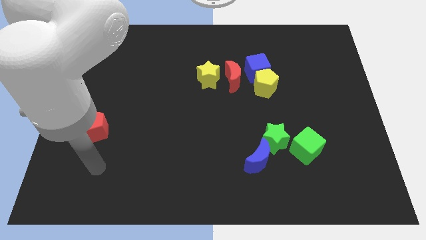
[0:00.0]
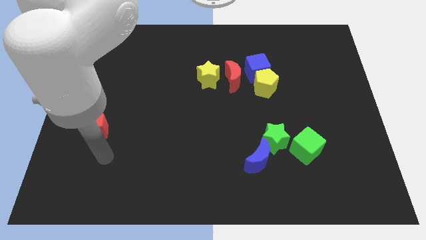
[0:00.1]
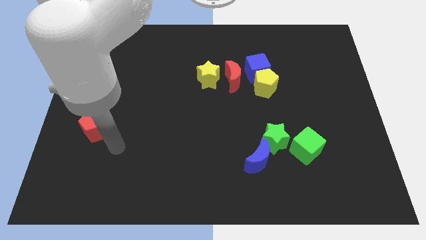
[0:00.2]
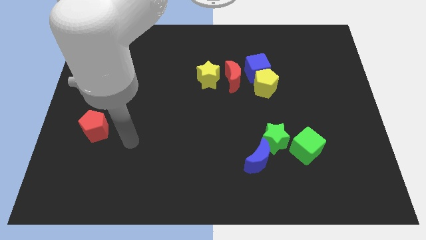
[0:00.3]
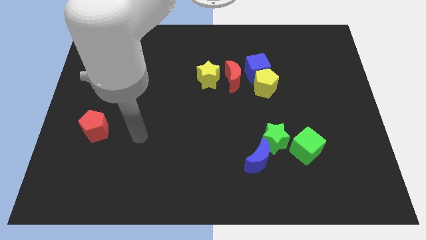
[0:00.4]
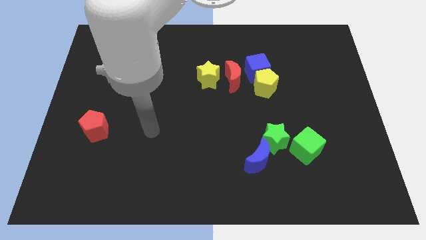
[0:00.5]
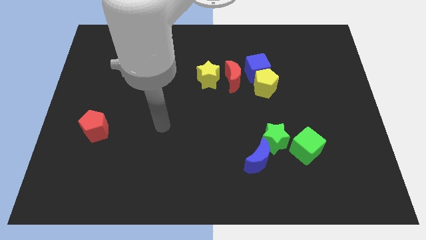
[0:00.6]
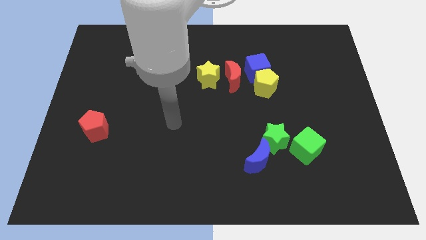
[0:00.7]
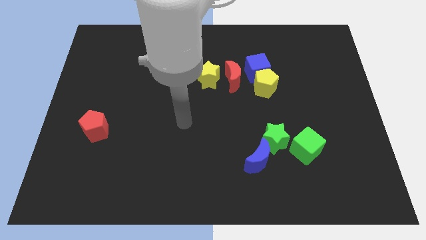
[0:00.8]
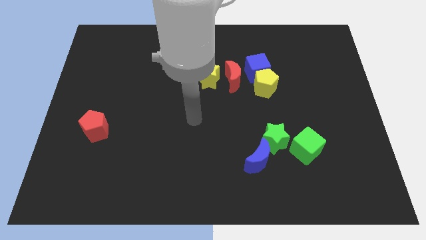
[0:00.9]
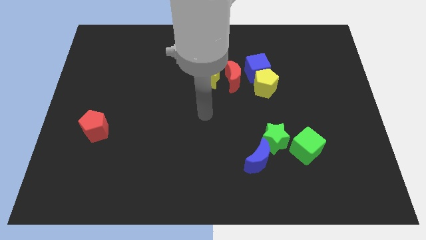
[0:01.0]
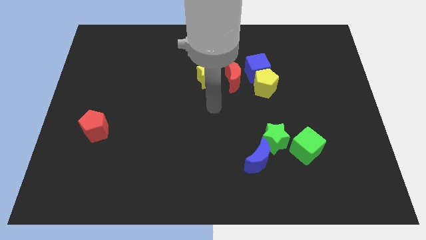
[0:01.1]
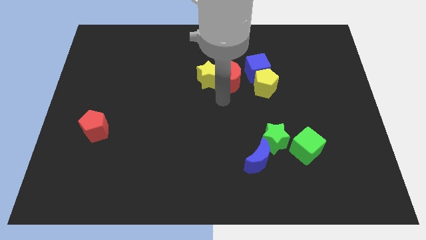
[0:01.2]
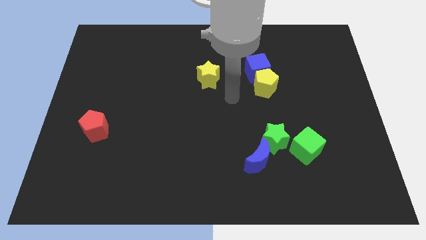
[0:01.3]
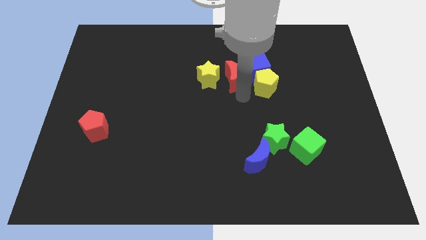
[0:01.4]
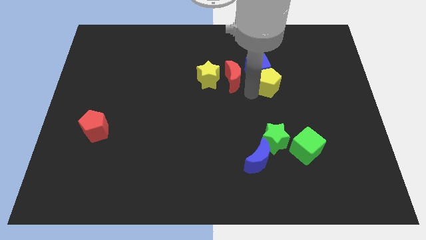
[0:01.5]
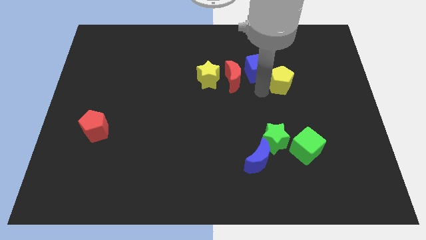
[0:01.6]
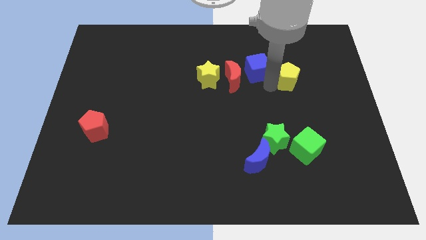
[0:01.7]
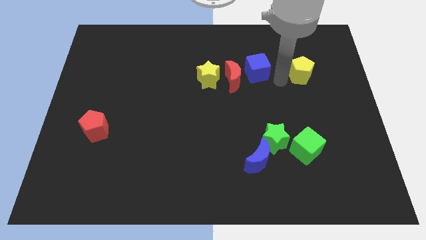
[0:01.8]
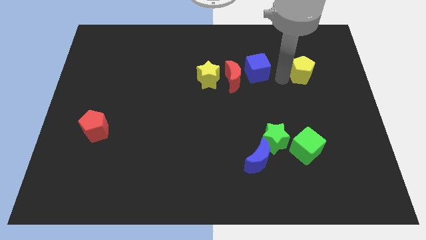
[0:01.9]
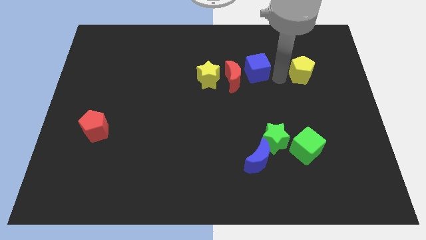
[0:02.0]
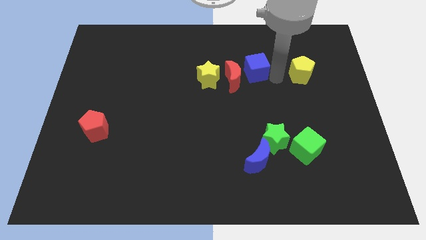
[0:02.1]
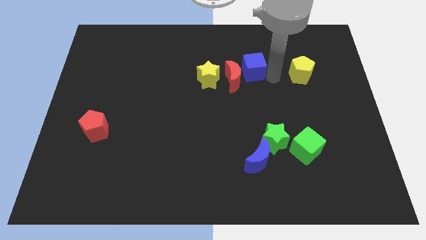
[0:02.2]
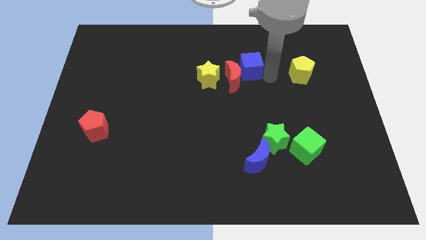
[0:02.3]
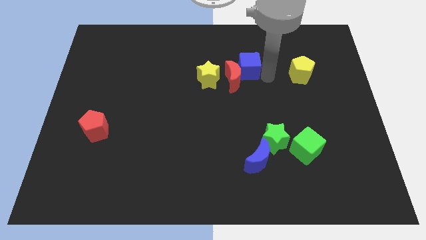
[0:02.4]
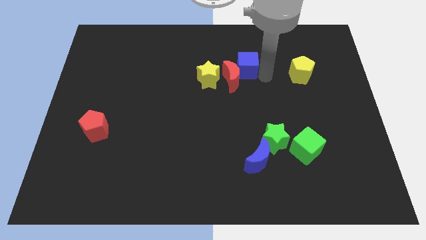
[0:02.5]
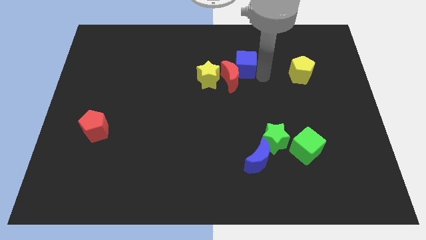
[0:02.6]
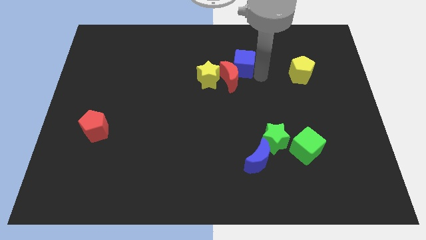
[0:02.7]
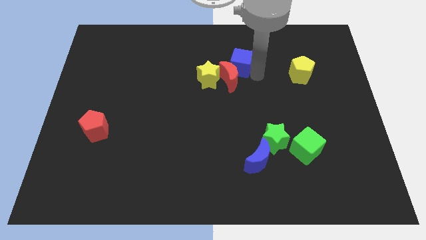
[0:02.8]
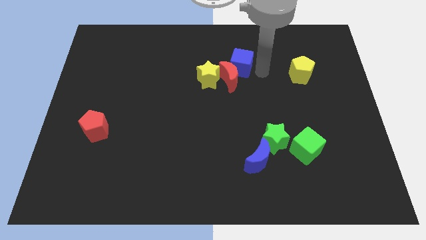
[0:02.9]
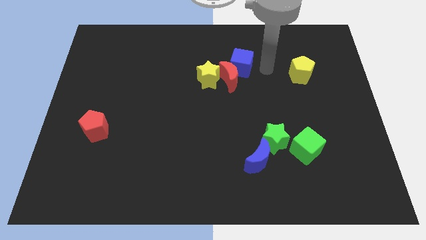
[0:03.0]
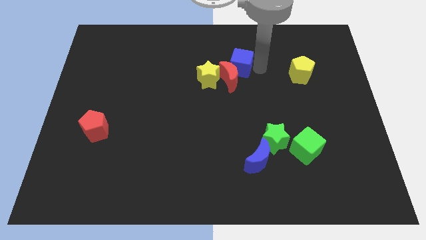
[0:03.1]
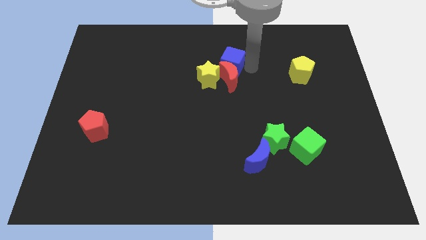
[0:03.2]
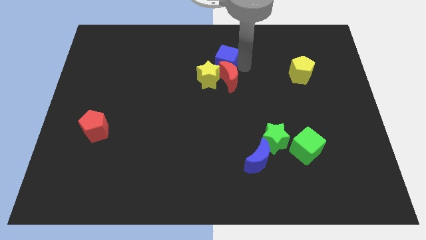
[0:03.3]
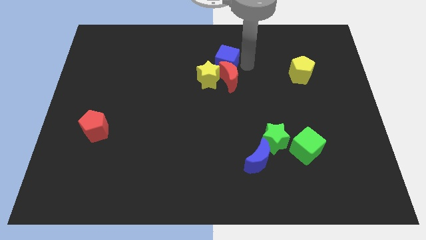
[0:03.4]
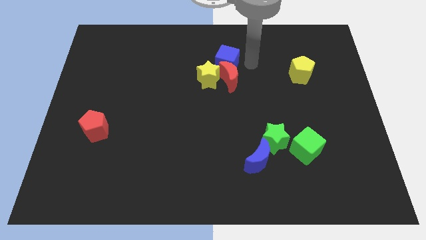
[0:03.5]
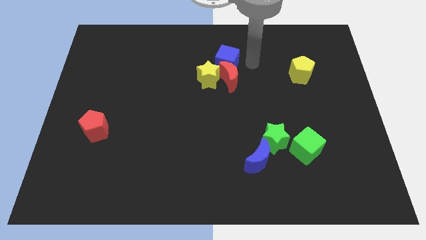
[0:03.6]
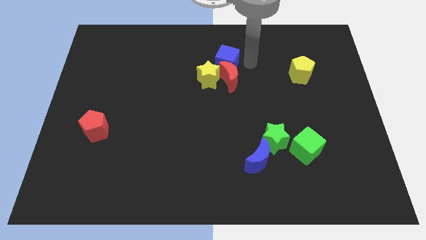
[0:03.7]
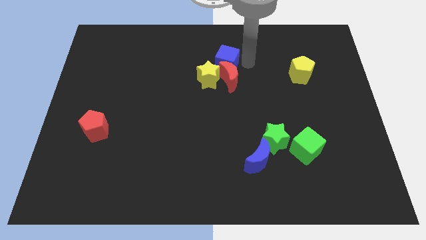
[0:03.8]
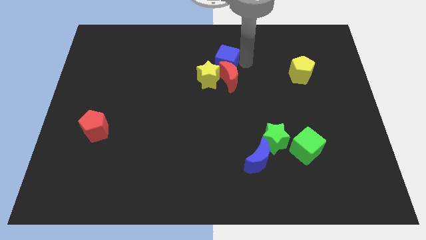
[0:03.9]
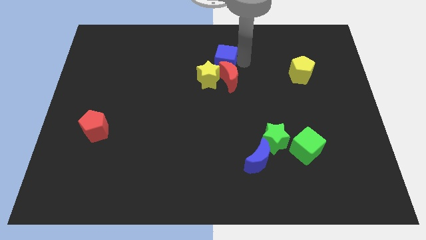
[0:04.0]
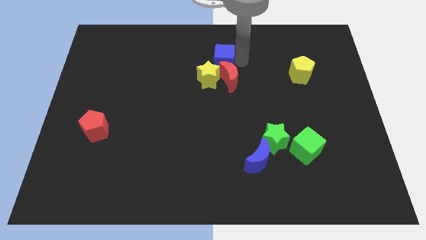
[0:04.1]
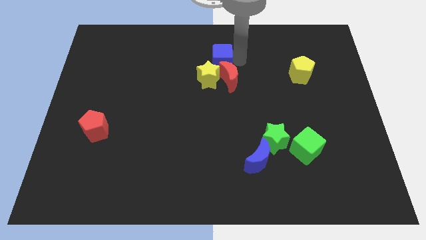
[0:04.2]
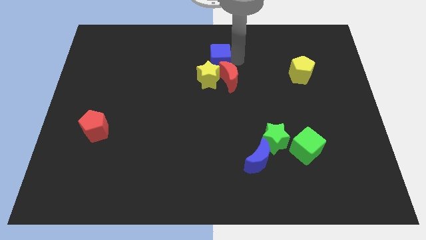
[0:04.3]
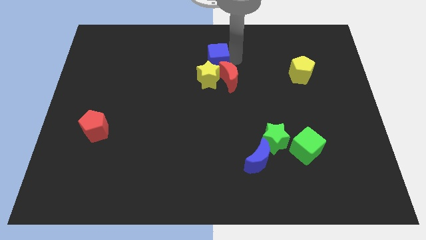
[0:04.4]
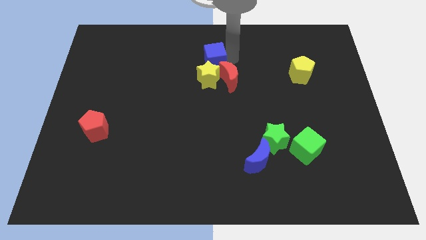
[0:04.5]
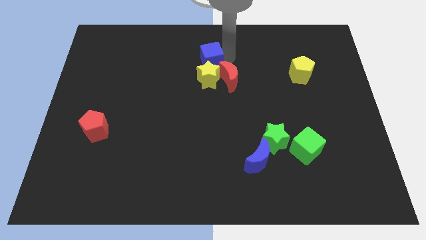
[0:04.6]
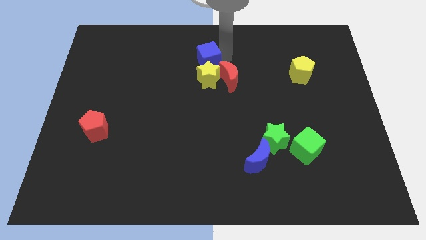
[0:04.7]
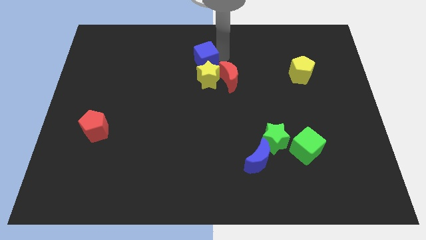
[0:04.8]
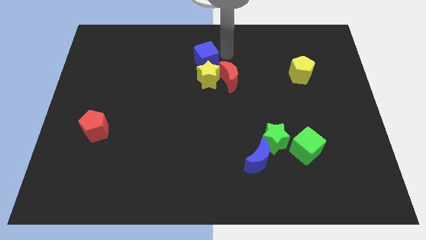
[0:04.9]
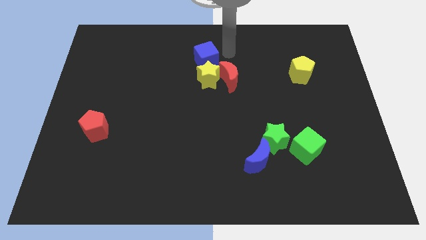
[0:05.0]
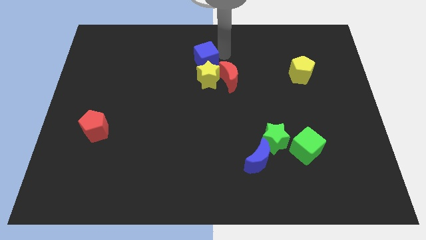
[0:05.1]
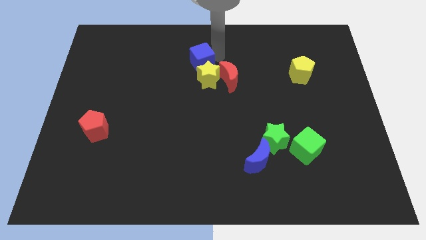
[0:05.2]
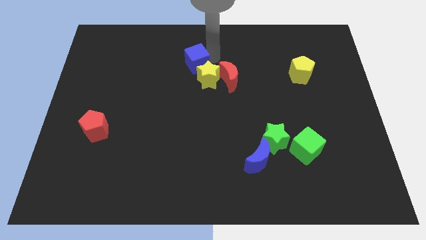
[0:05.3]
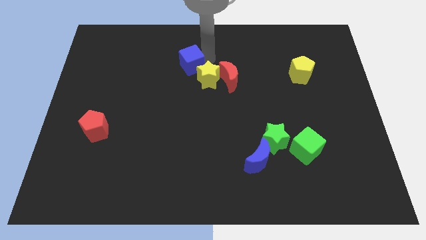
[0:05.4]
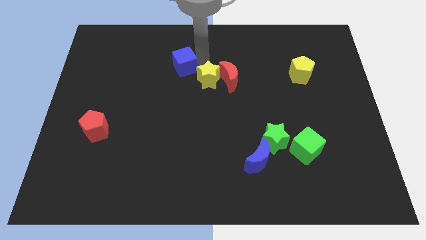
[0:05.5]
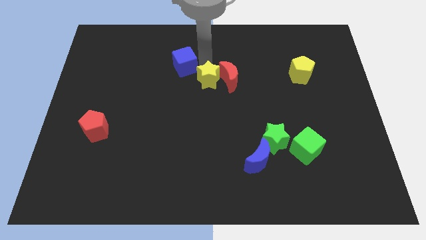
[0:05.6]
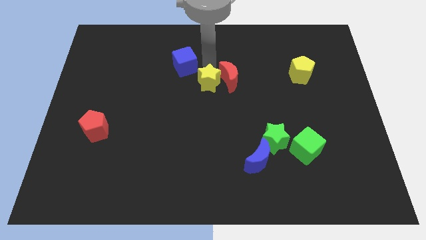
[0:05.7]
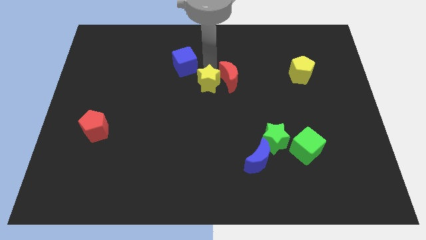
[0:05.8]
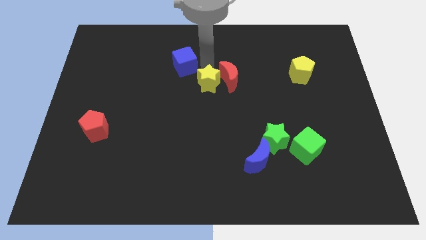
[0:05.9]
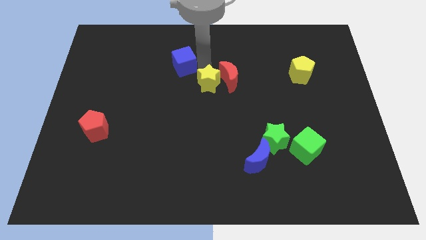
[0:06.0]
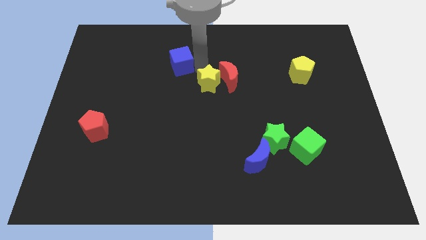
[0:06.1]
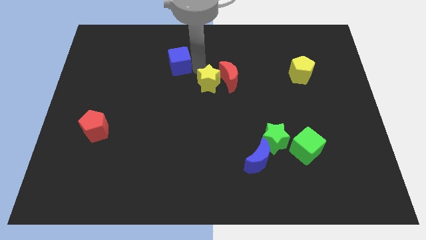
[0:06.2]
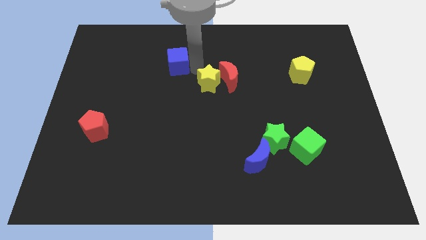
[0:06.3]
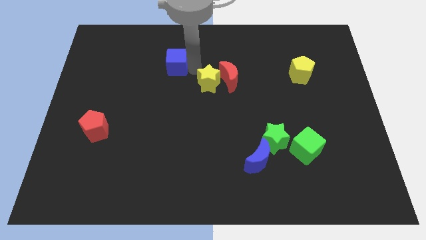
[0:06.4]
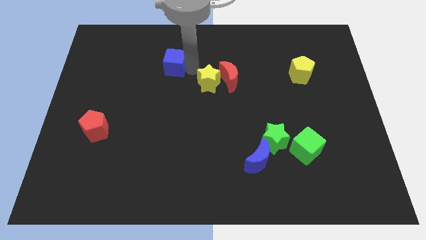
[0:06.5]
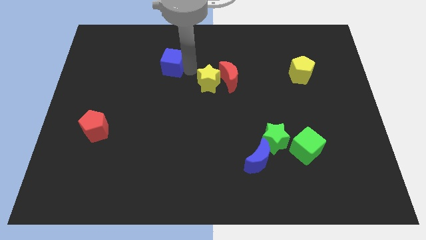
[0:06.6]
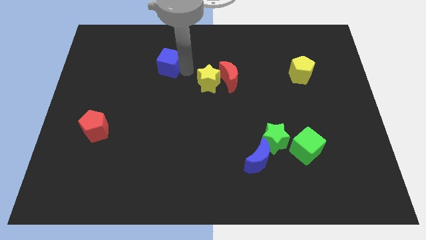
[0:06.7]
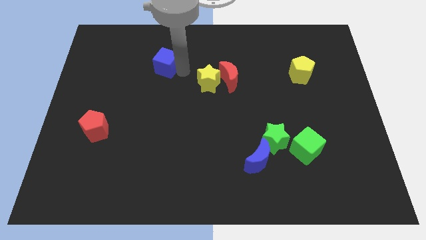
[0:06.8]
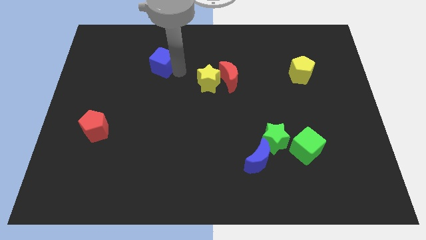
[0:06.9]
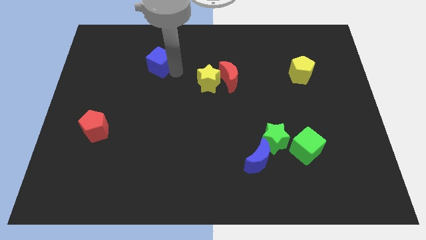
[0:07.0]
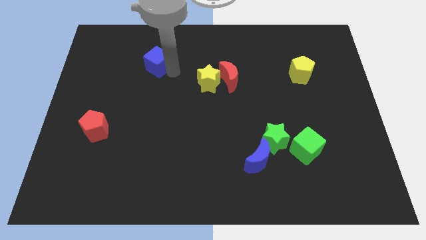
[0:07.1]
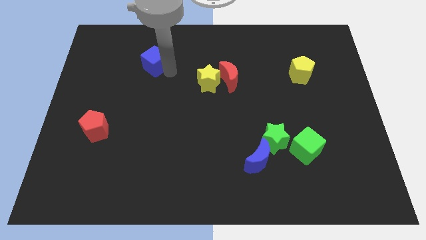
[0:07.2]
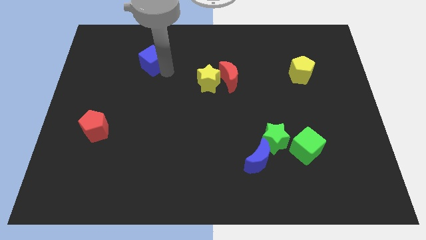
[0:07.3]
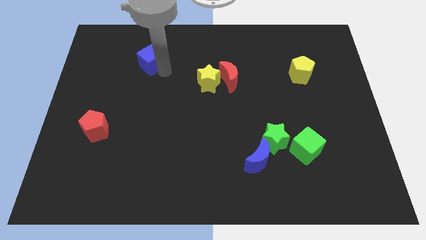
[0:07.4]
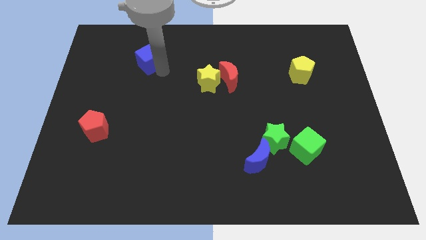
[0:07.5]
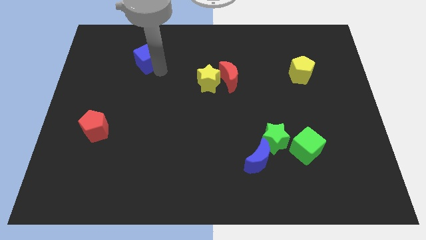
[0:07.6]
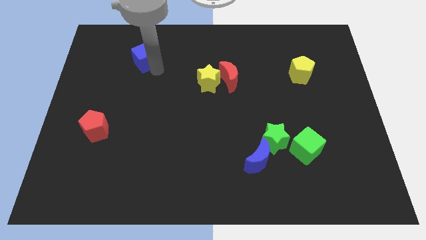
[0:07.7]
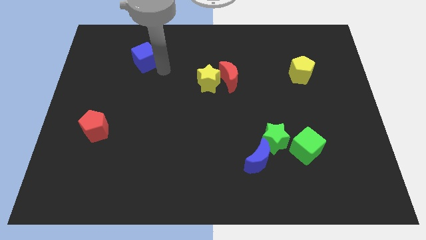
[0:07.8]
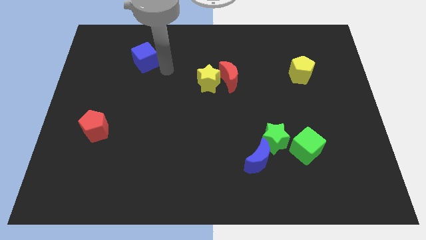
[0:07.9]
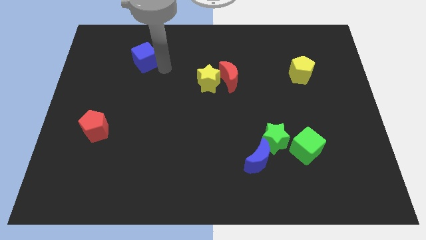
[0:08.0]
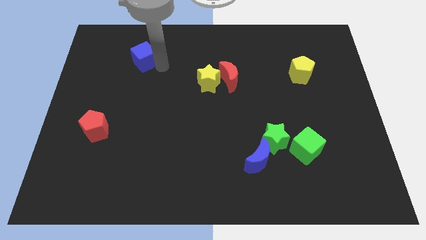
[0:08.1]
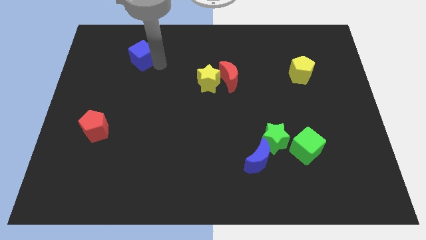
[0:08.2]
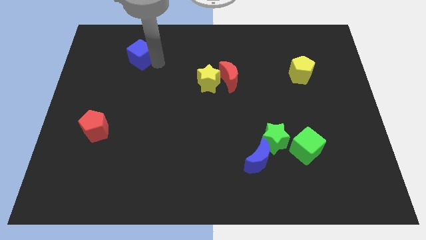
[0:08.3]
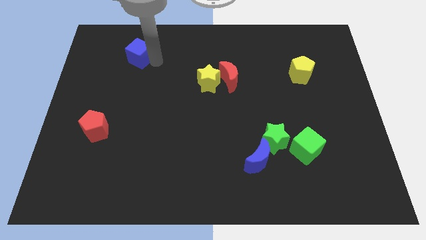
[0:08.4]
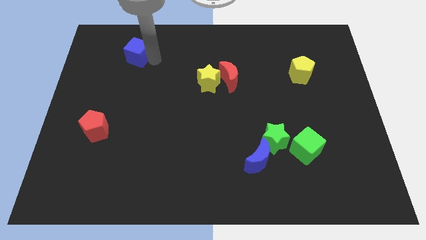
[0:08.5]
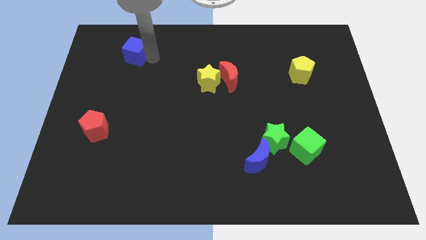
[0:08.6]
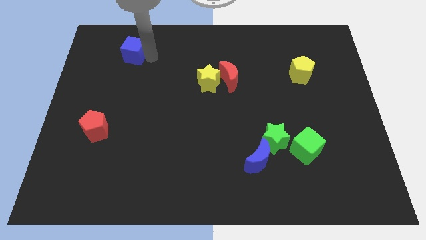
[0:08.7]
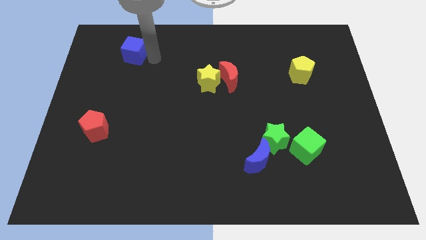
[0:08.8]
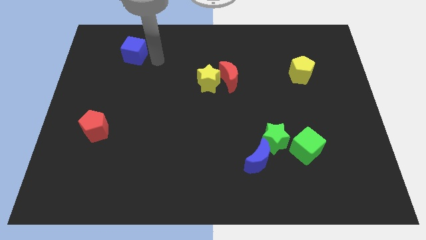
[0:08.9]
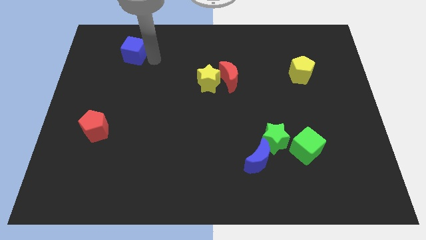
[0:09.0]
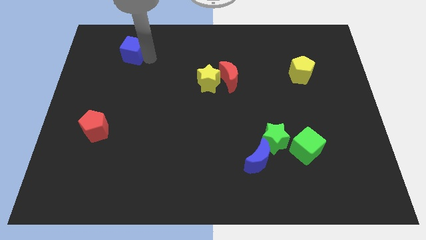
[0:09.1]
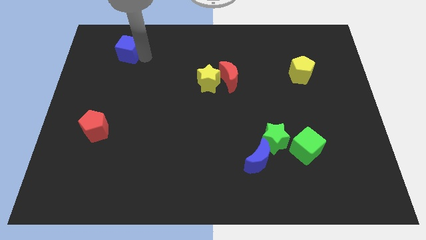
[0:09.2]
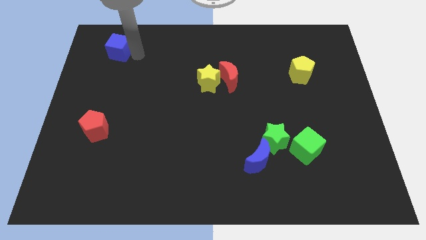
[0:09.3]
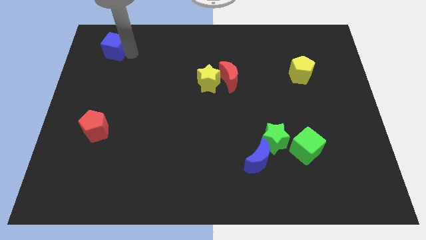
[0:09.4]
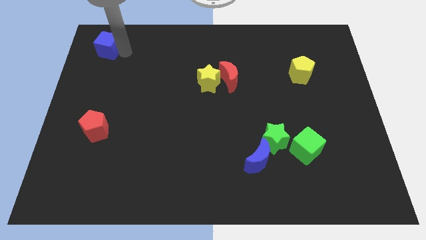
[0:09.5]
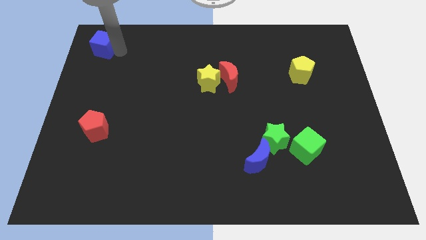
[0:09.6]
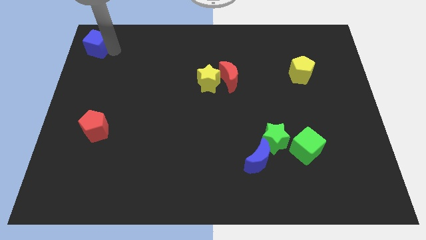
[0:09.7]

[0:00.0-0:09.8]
push the blue cube to the top left of the board
